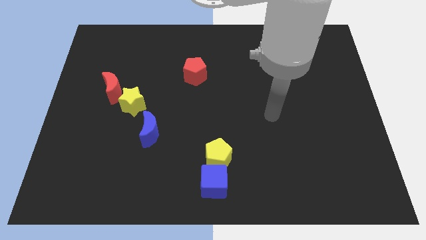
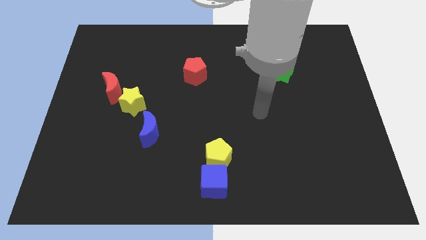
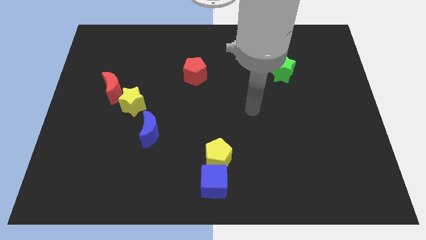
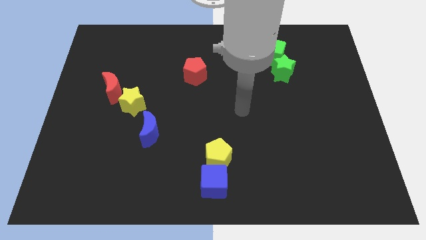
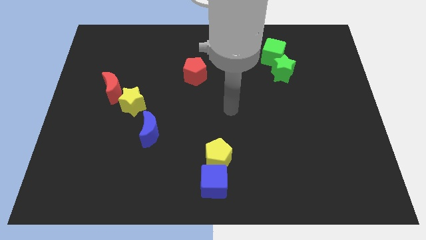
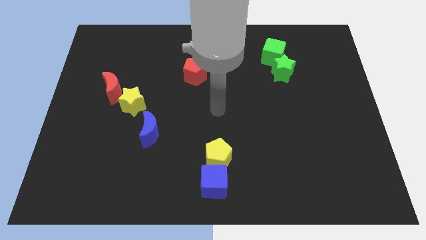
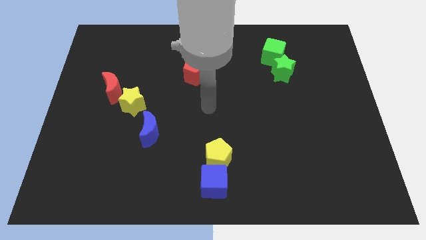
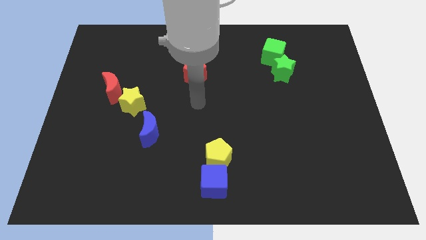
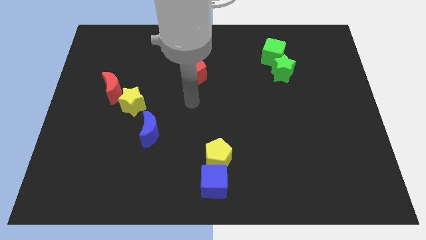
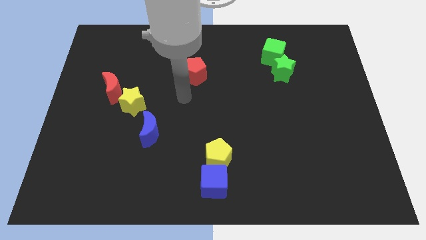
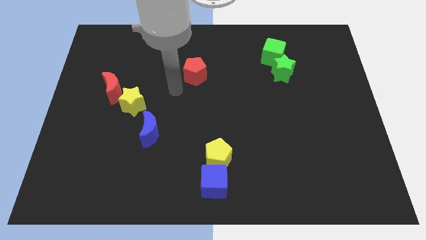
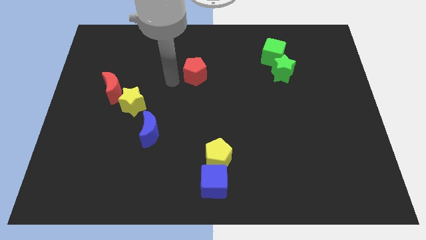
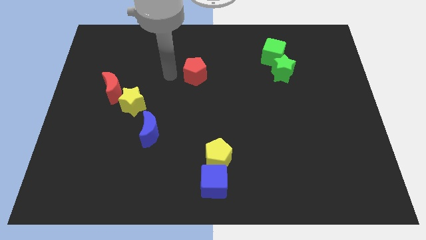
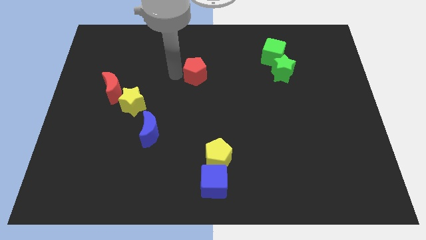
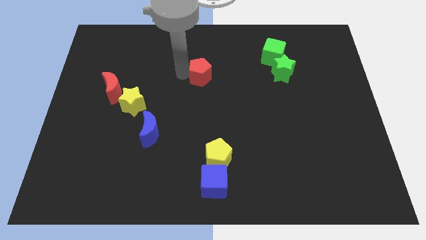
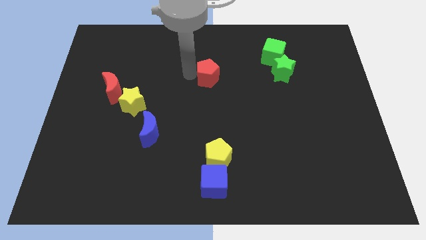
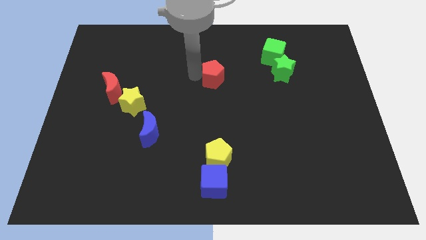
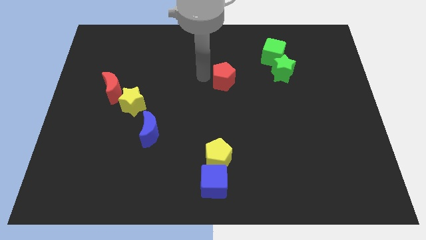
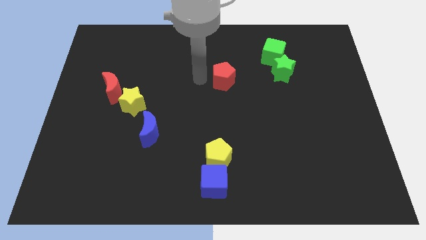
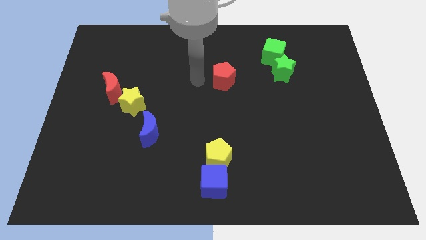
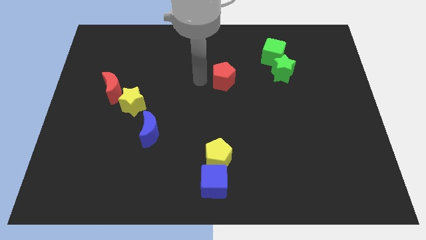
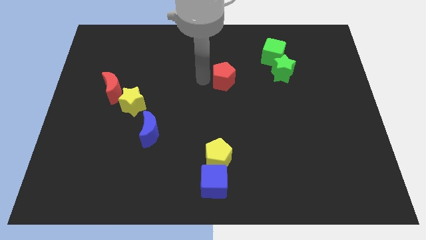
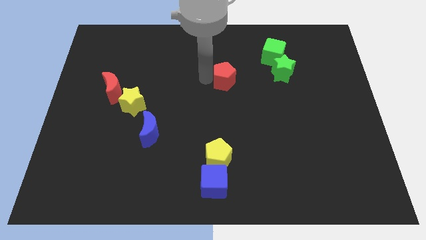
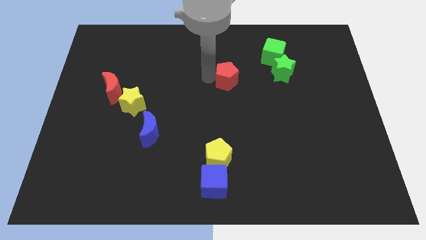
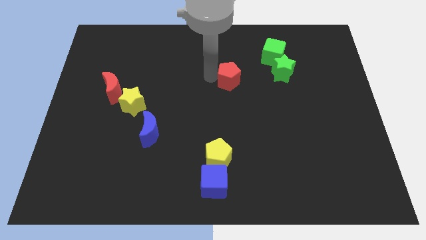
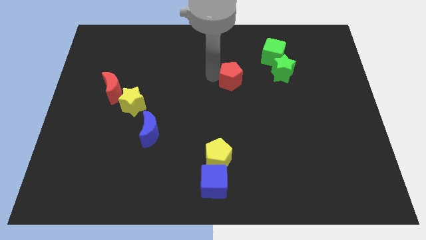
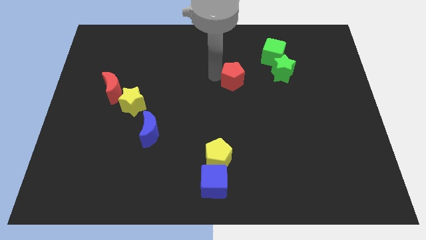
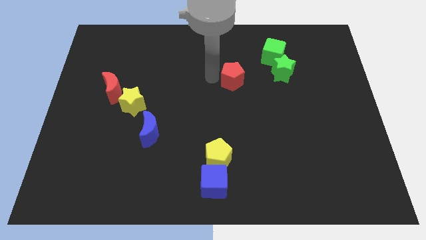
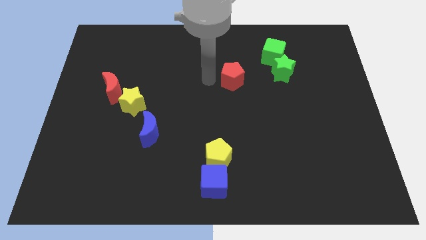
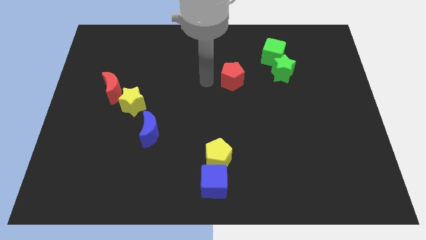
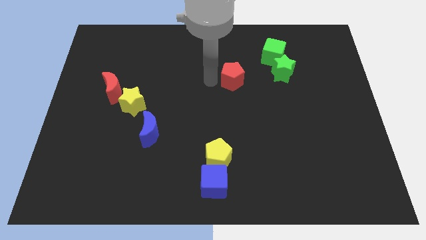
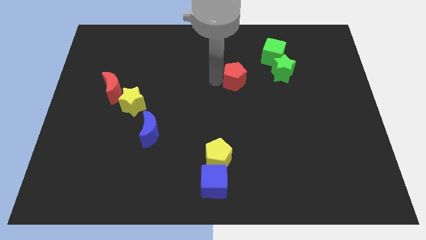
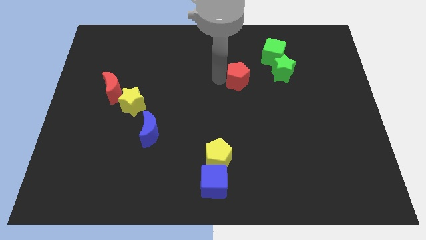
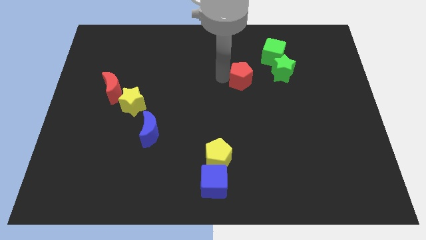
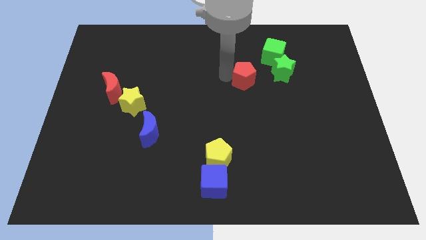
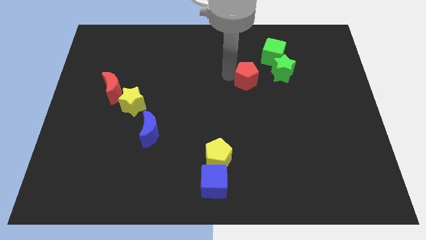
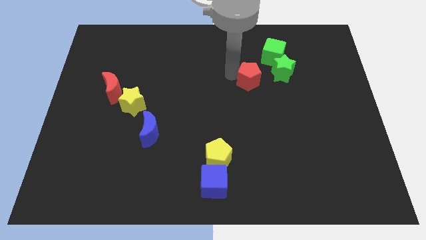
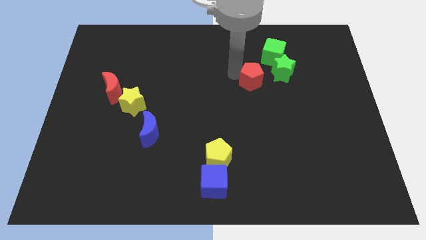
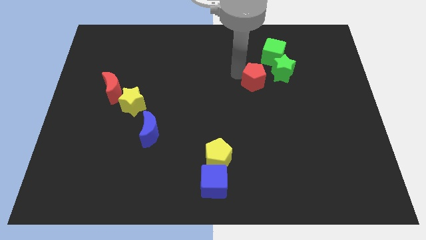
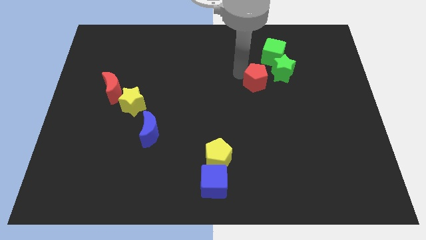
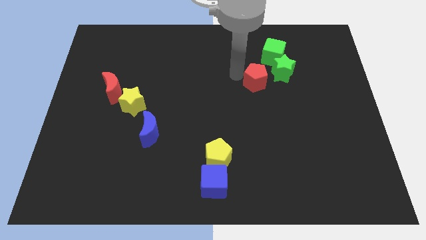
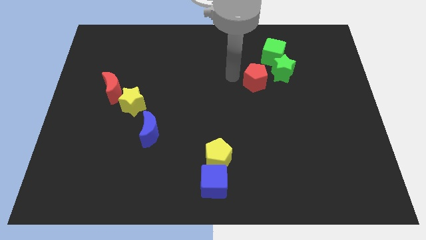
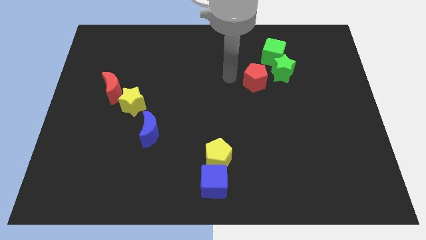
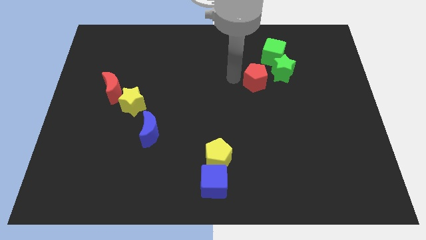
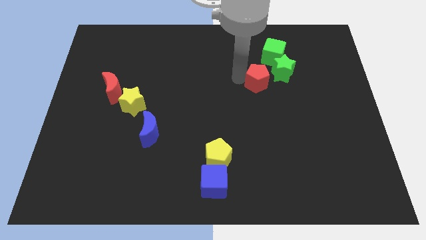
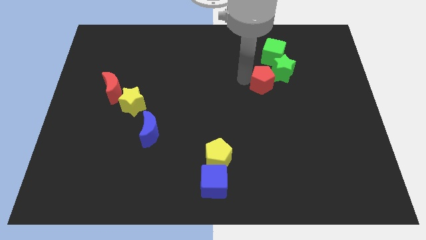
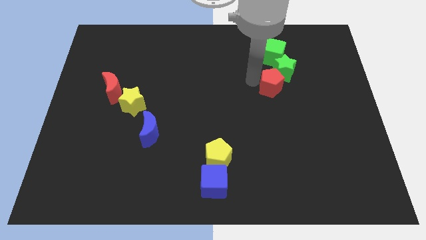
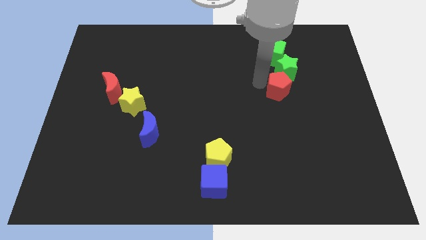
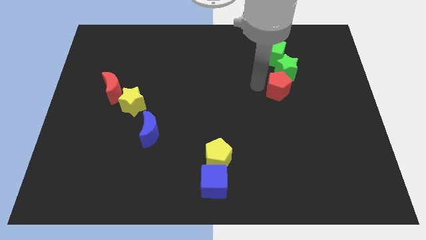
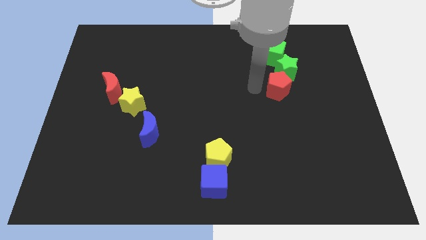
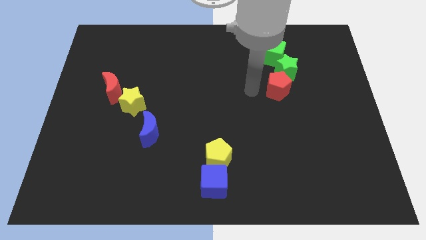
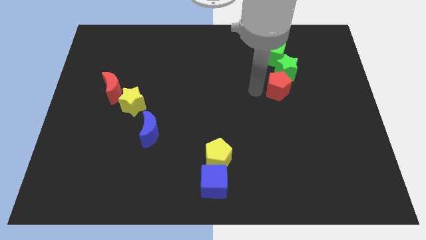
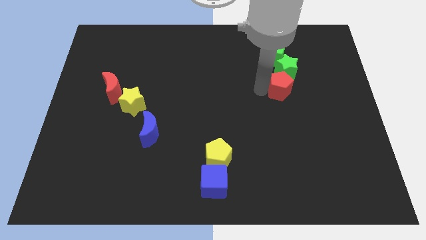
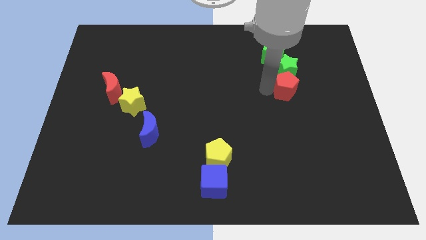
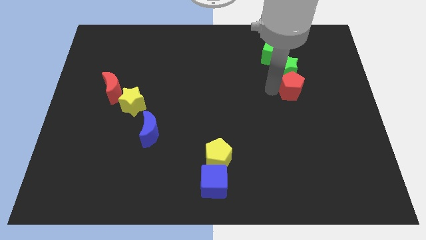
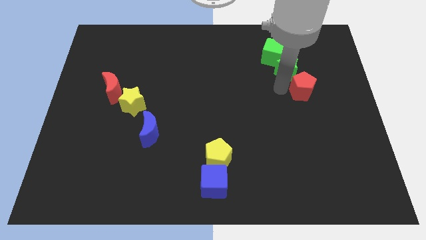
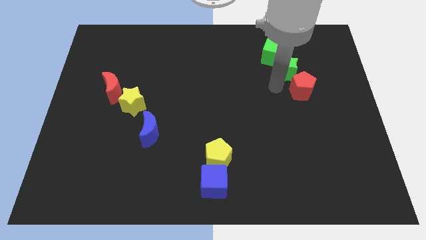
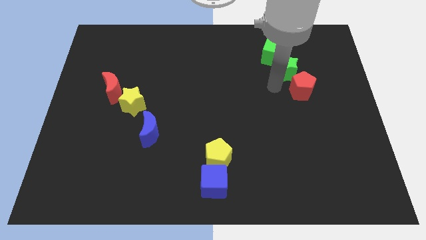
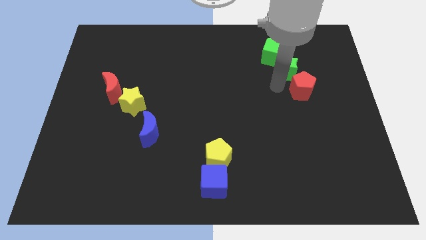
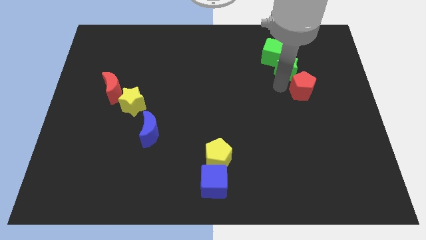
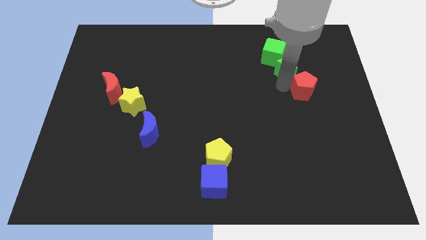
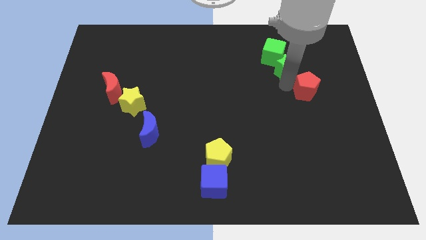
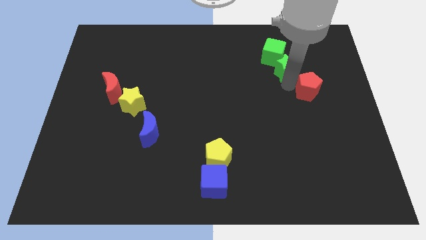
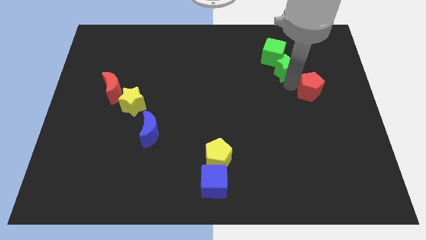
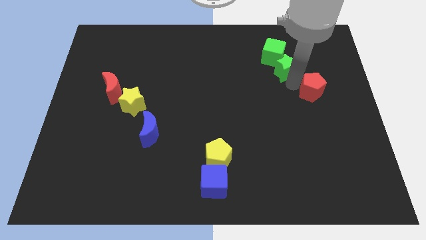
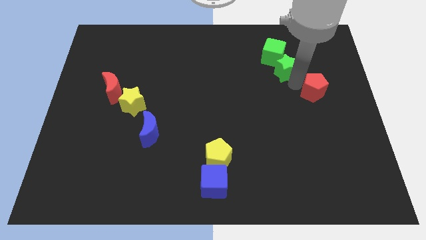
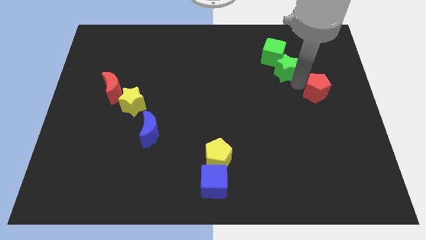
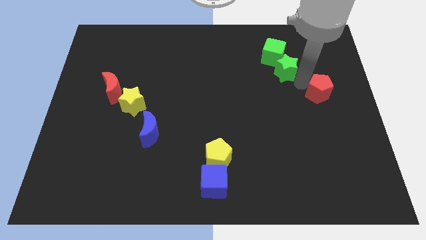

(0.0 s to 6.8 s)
move the red pentagon to the center right

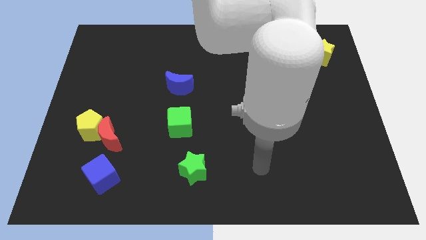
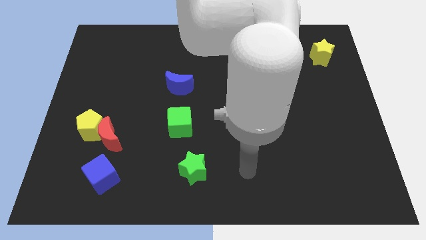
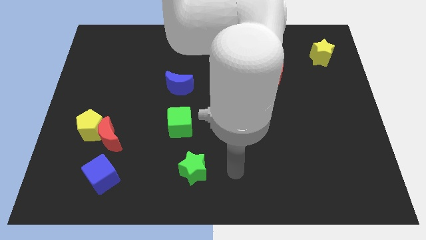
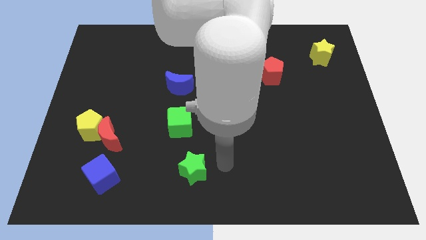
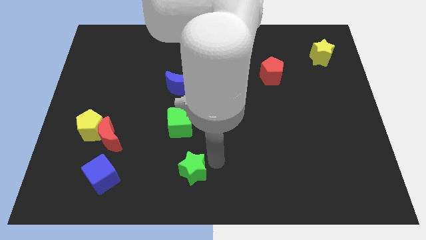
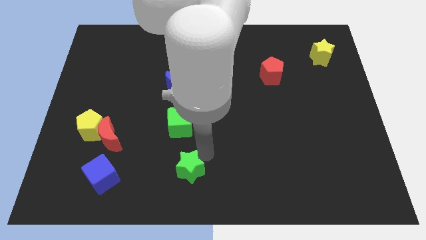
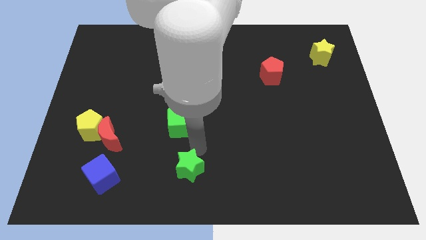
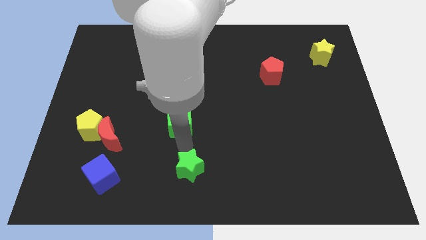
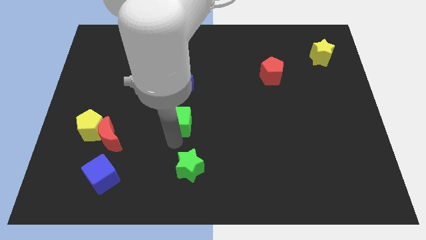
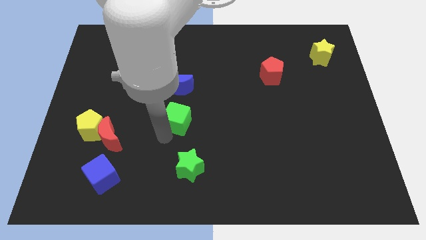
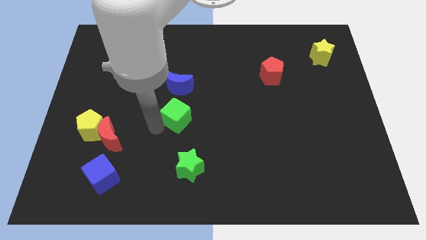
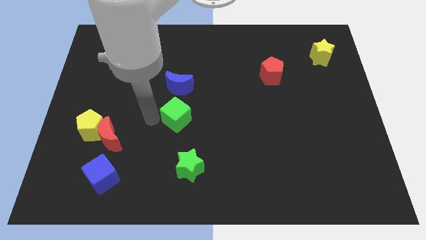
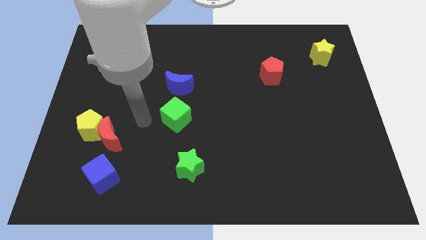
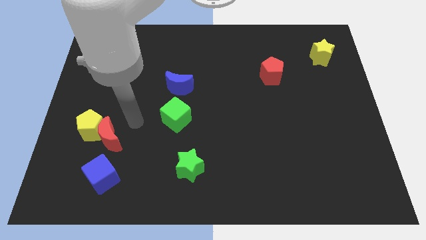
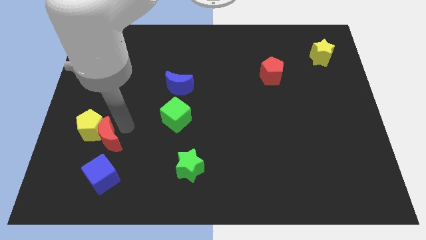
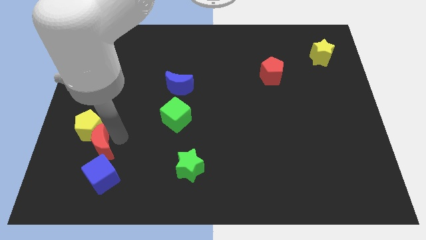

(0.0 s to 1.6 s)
slide the yellow pentagon to the left side
